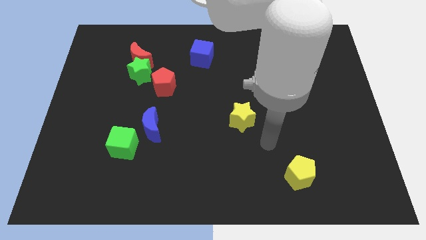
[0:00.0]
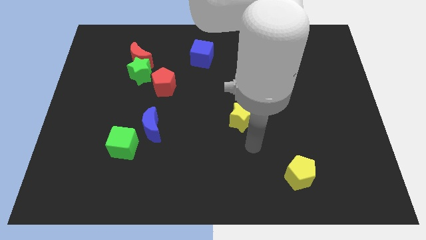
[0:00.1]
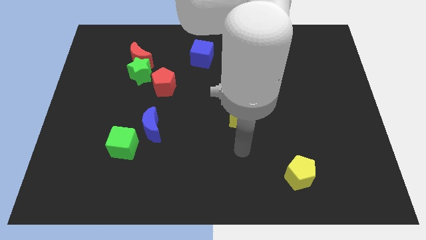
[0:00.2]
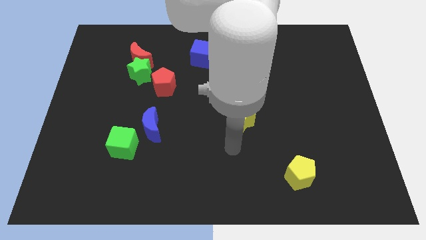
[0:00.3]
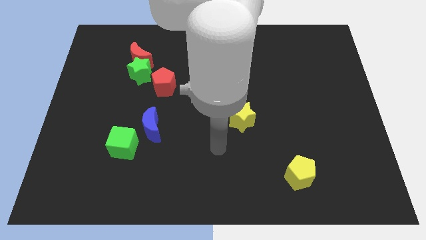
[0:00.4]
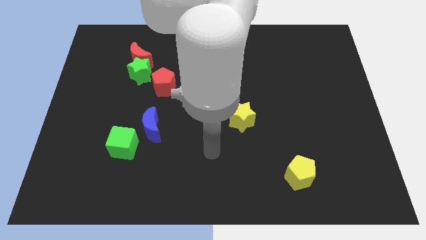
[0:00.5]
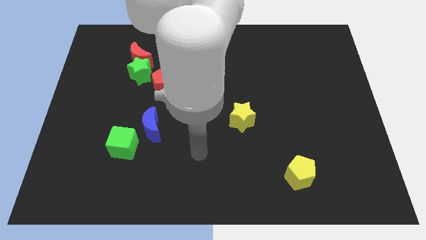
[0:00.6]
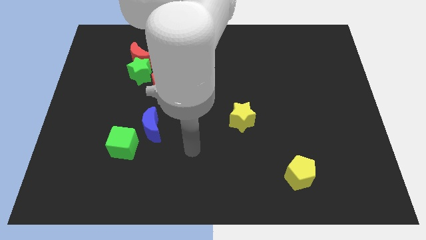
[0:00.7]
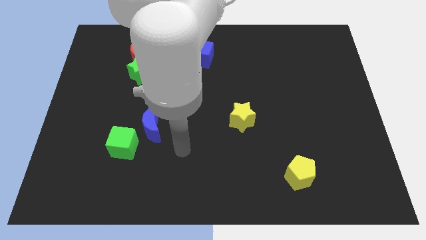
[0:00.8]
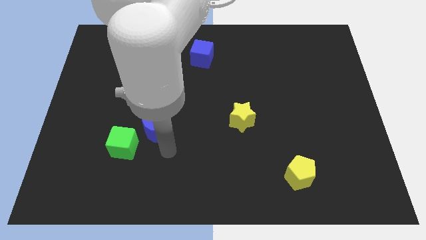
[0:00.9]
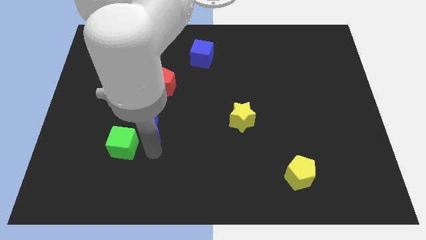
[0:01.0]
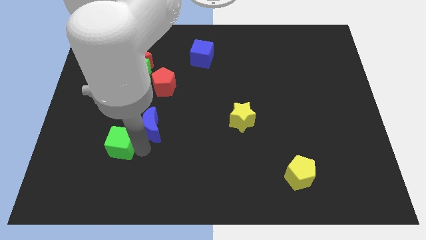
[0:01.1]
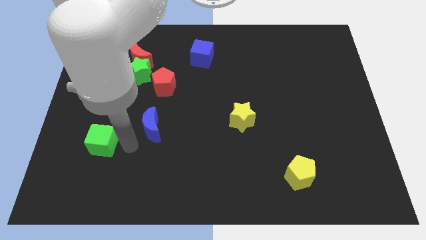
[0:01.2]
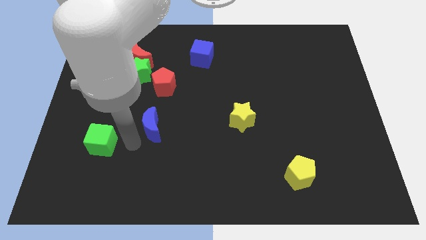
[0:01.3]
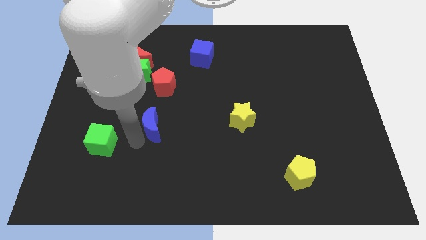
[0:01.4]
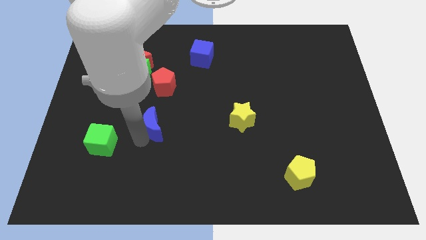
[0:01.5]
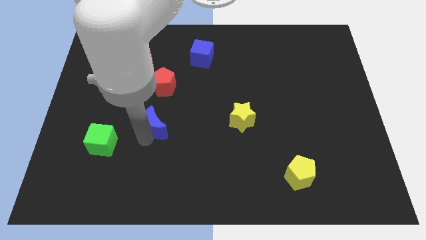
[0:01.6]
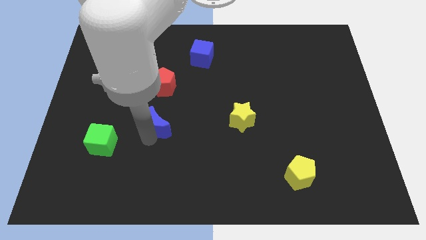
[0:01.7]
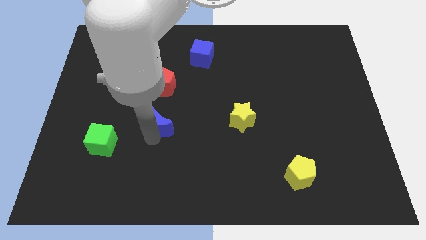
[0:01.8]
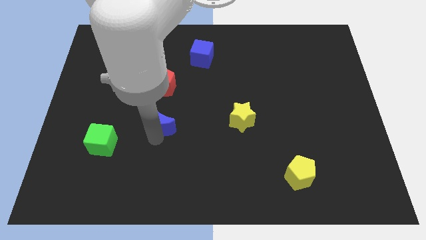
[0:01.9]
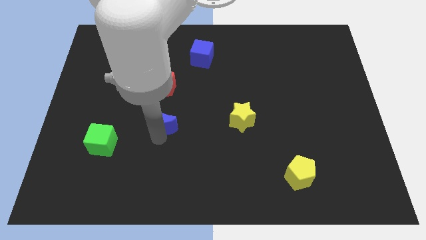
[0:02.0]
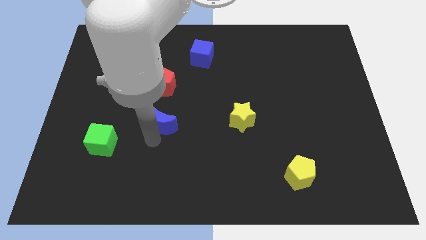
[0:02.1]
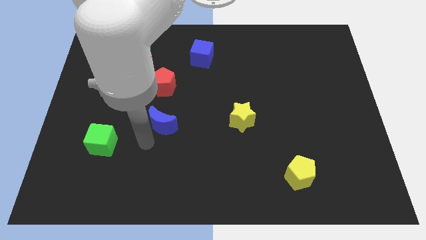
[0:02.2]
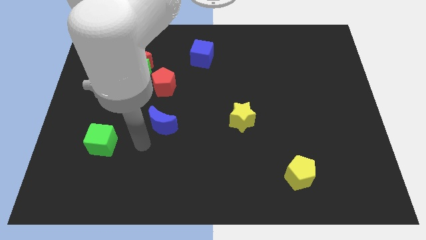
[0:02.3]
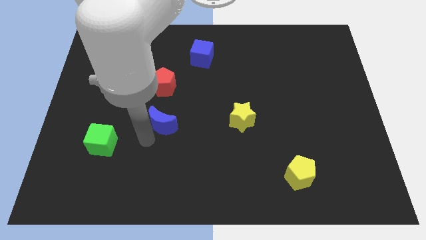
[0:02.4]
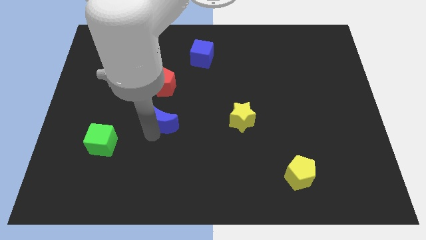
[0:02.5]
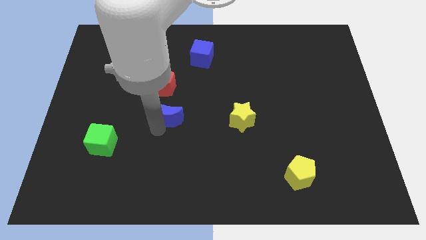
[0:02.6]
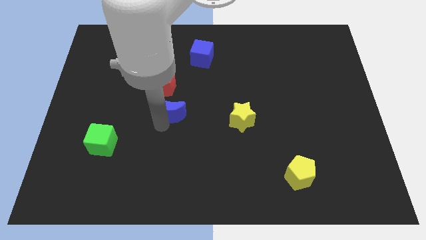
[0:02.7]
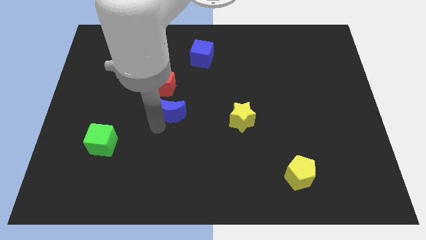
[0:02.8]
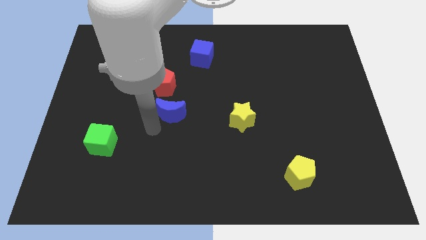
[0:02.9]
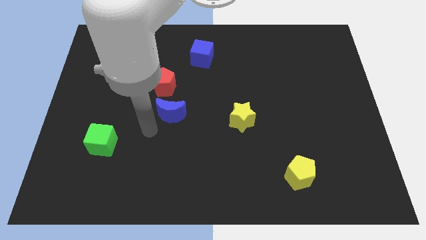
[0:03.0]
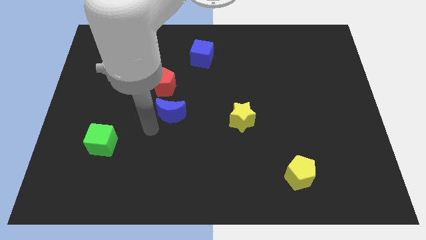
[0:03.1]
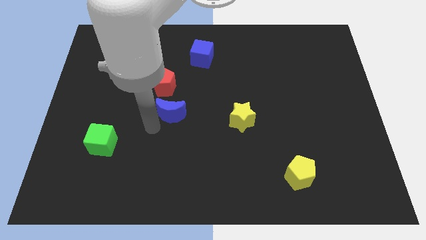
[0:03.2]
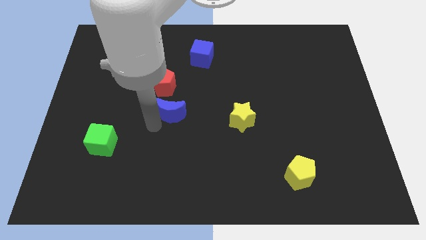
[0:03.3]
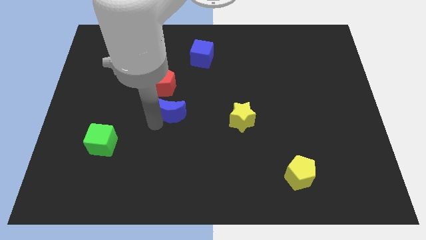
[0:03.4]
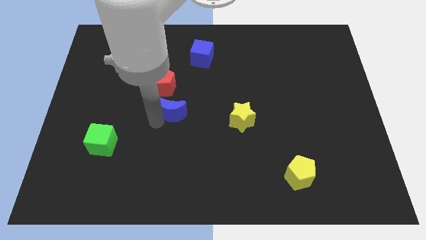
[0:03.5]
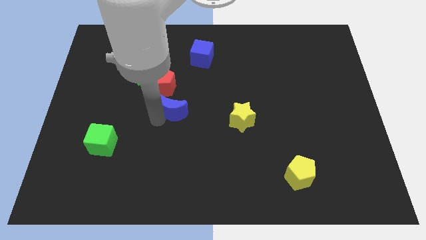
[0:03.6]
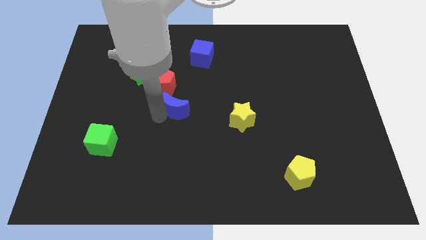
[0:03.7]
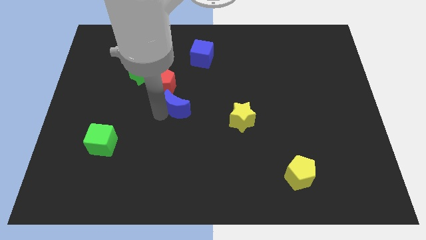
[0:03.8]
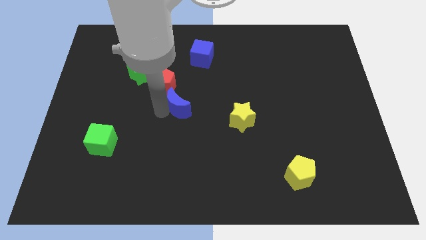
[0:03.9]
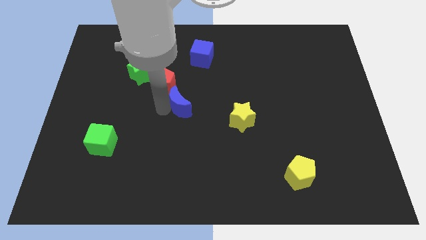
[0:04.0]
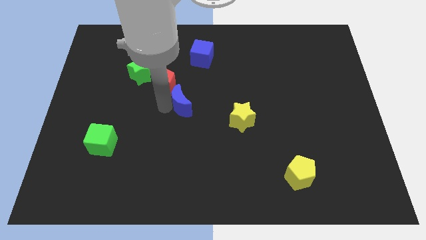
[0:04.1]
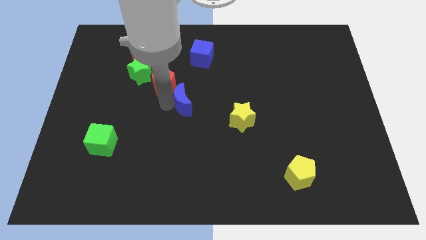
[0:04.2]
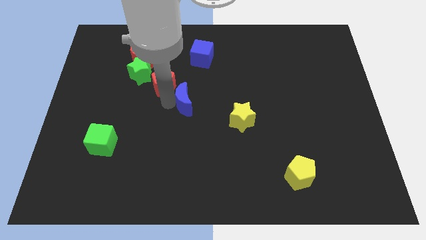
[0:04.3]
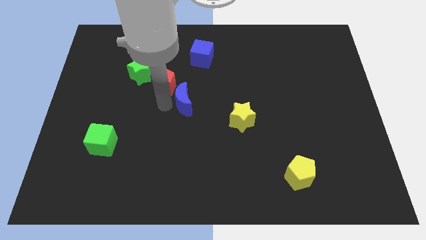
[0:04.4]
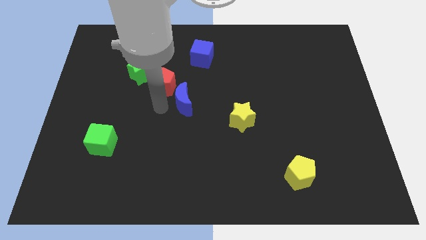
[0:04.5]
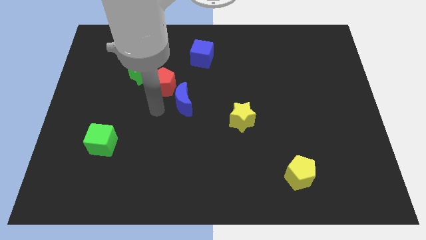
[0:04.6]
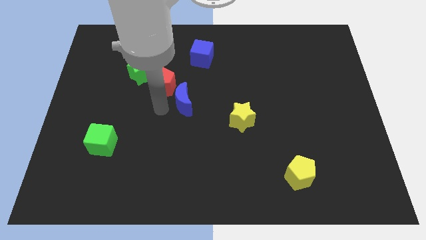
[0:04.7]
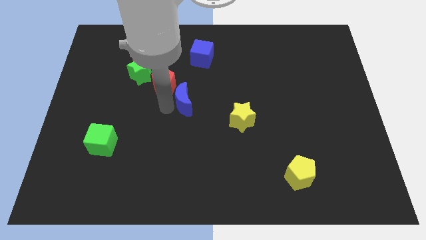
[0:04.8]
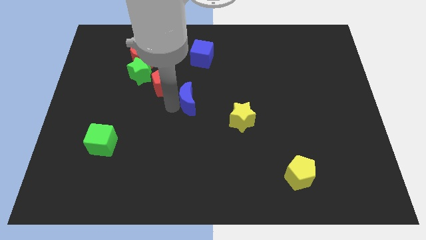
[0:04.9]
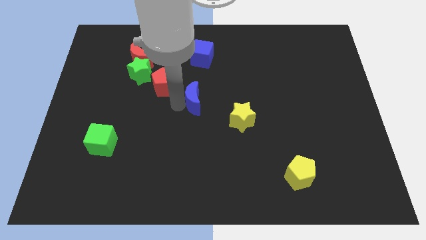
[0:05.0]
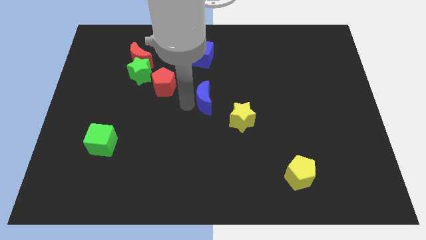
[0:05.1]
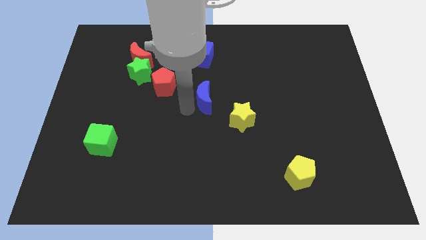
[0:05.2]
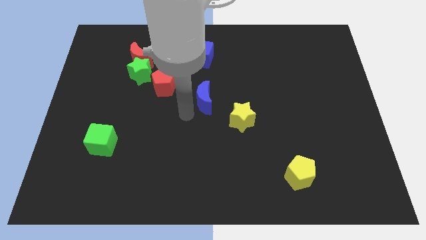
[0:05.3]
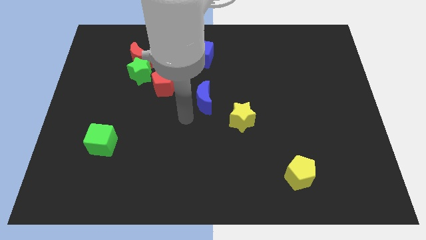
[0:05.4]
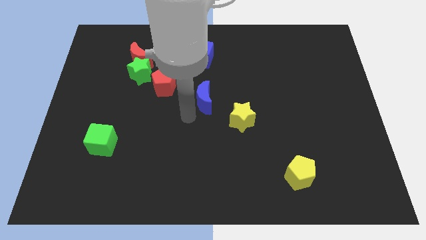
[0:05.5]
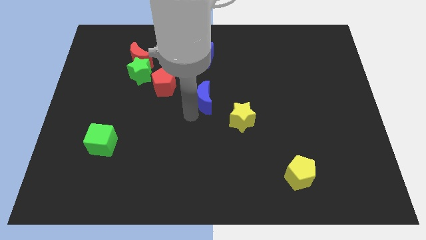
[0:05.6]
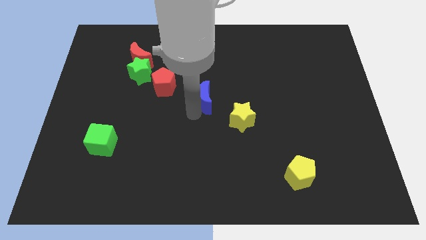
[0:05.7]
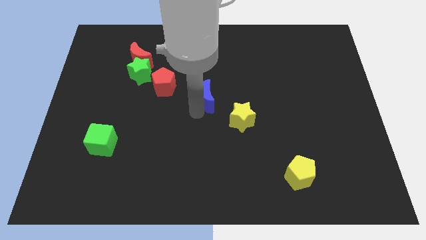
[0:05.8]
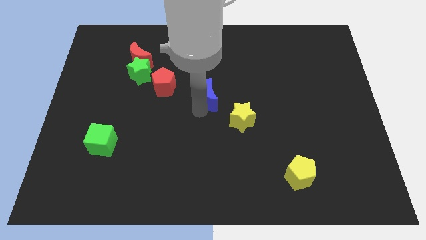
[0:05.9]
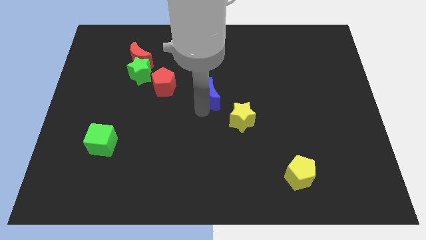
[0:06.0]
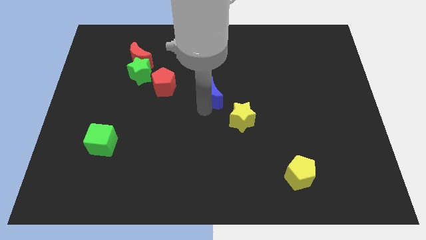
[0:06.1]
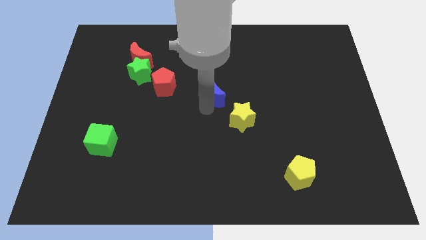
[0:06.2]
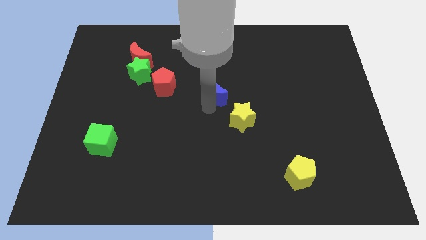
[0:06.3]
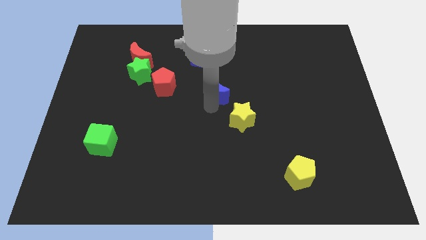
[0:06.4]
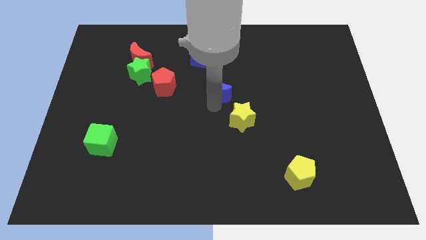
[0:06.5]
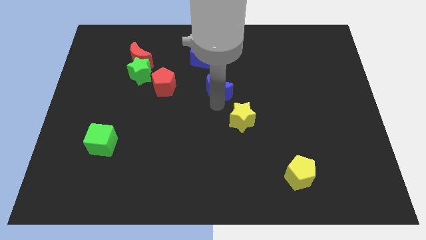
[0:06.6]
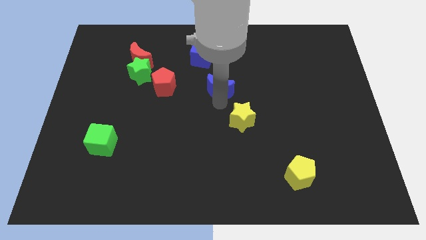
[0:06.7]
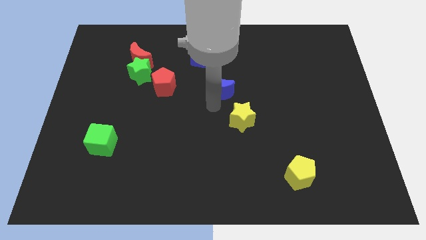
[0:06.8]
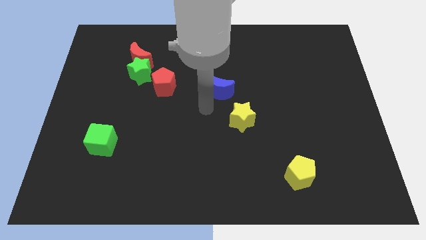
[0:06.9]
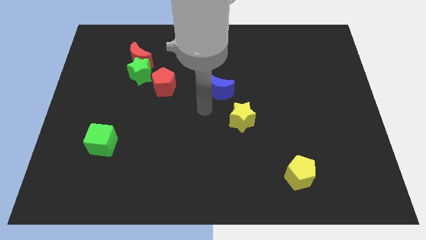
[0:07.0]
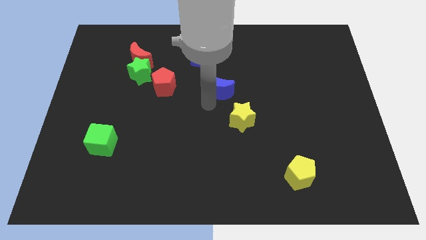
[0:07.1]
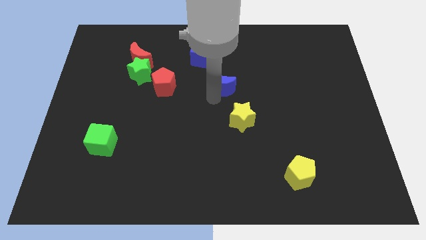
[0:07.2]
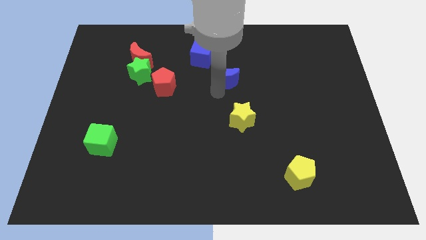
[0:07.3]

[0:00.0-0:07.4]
move the blue moon up and right diagonally
